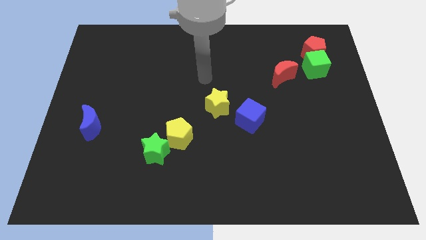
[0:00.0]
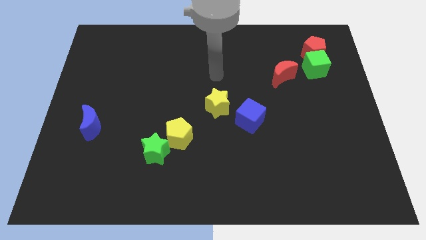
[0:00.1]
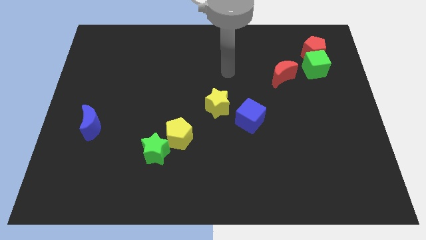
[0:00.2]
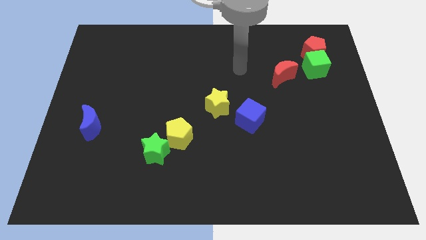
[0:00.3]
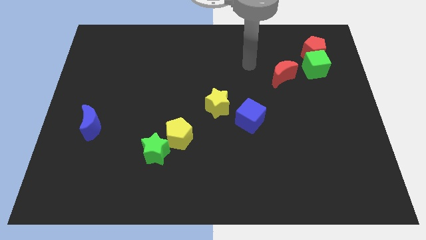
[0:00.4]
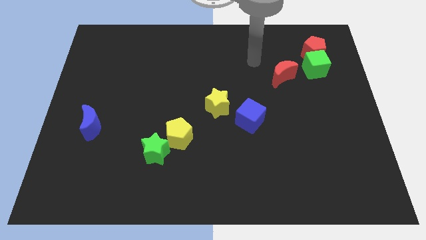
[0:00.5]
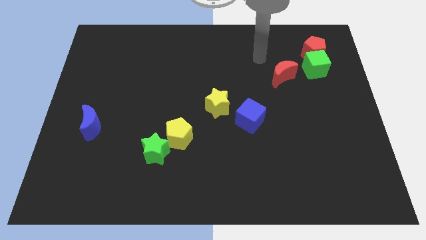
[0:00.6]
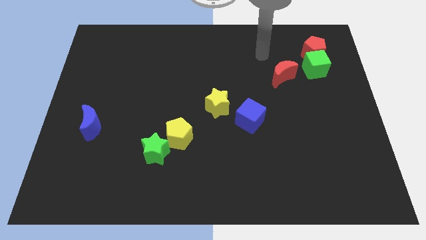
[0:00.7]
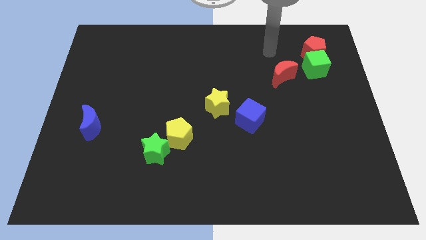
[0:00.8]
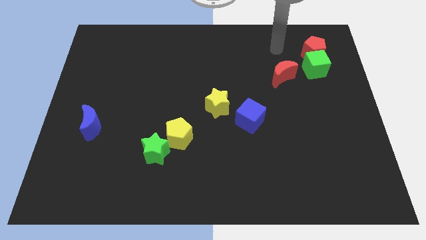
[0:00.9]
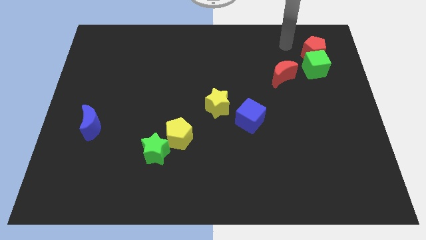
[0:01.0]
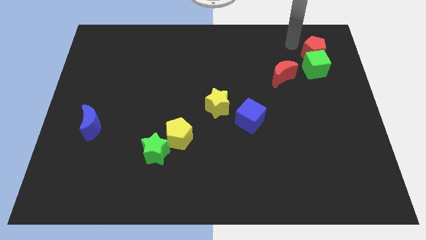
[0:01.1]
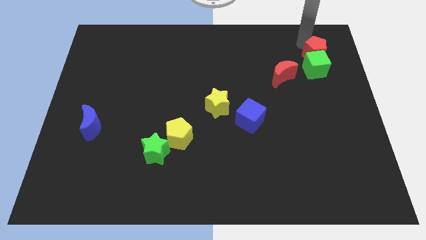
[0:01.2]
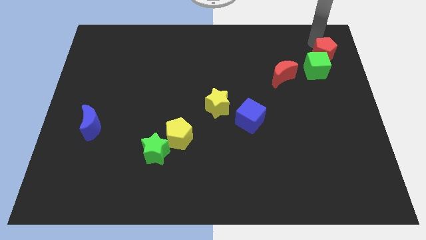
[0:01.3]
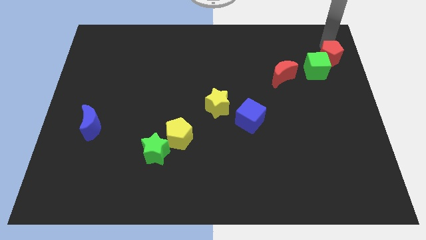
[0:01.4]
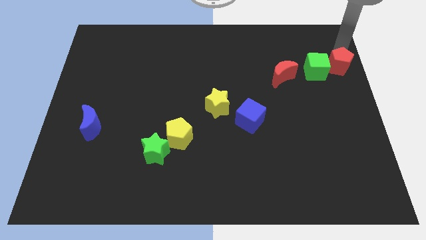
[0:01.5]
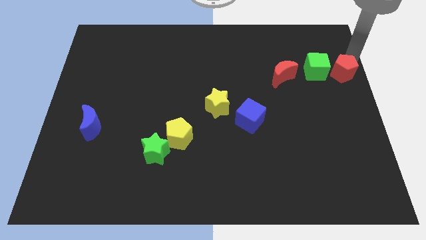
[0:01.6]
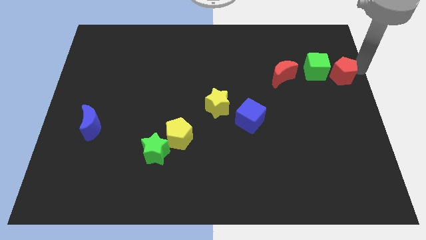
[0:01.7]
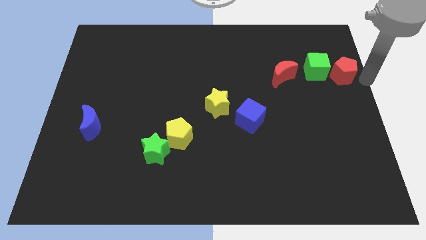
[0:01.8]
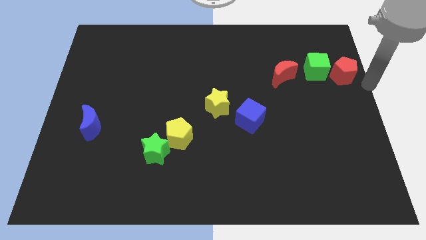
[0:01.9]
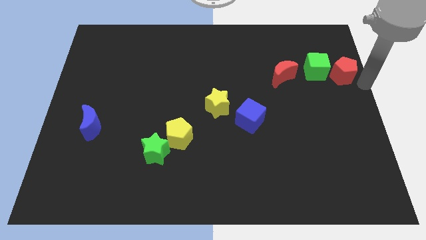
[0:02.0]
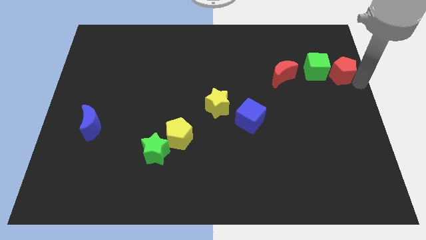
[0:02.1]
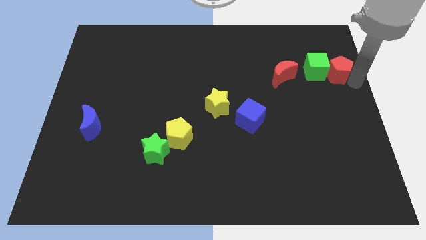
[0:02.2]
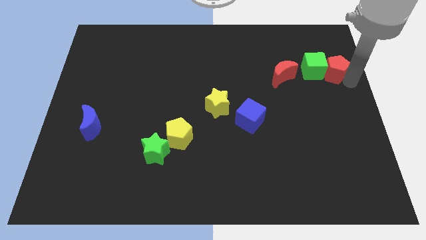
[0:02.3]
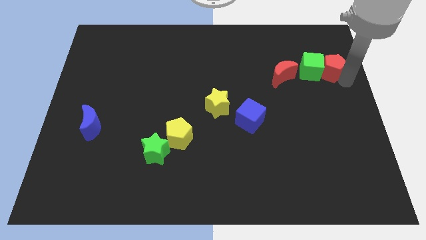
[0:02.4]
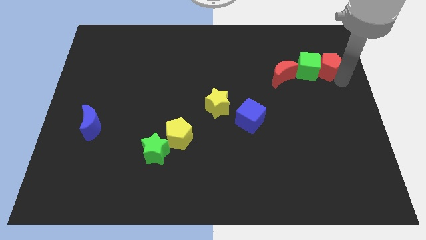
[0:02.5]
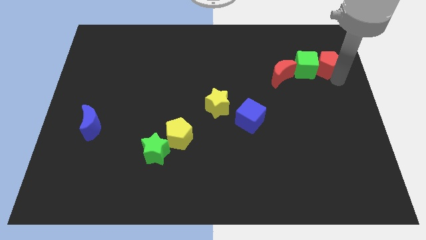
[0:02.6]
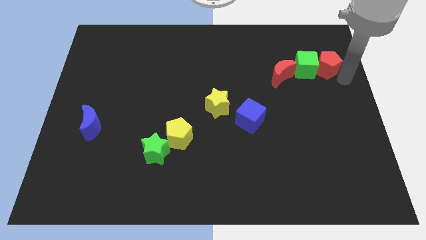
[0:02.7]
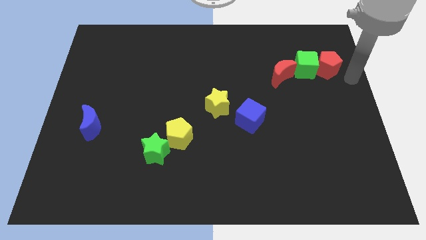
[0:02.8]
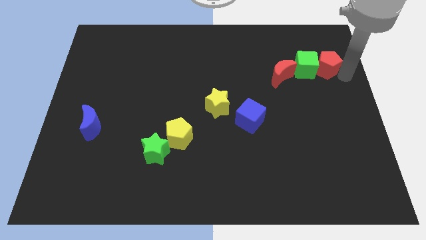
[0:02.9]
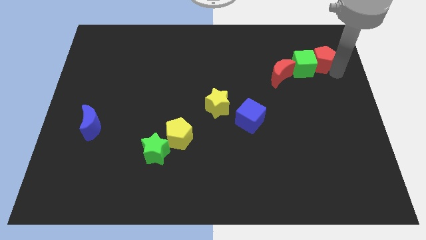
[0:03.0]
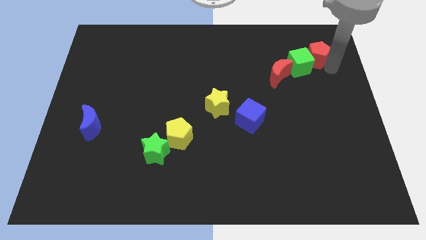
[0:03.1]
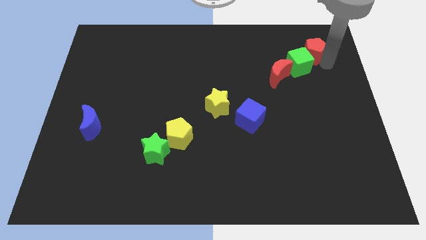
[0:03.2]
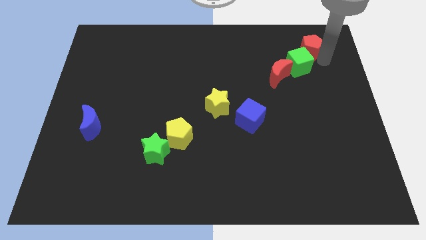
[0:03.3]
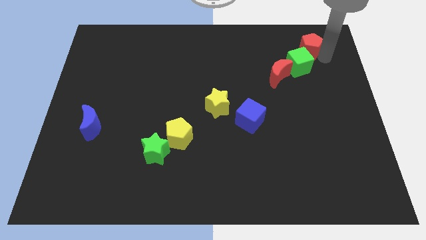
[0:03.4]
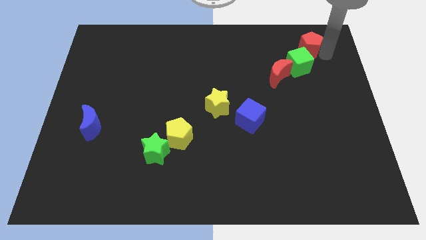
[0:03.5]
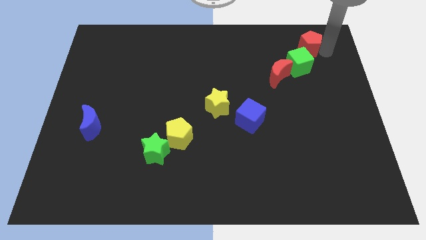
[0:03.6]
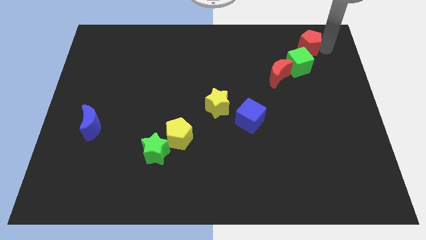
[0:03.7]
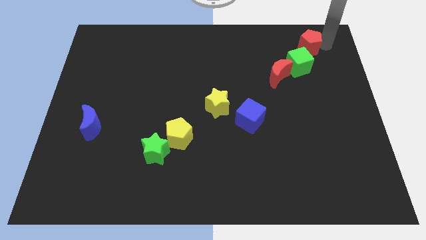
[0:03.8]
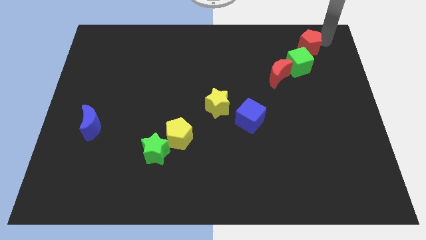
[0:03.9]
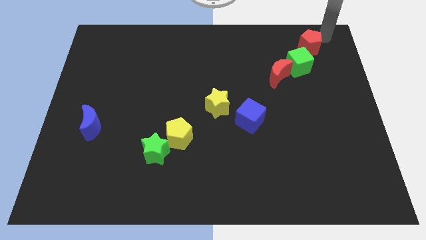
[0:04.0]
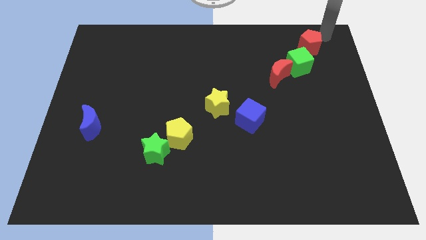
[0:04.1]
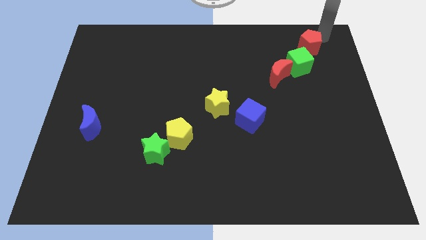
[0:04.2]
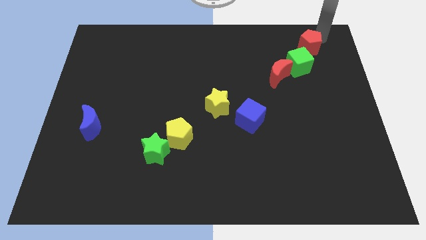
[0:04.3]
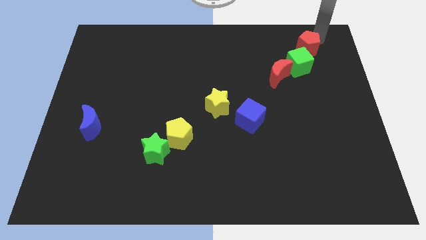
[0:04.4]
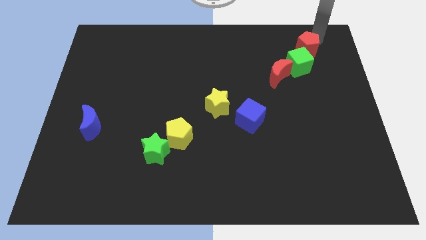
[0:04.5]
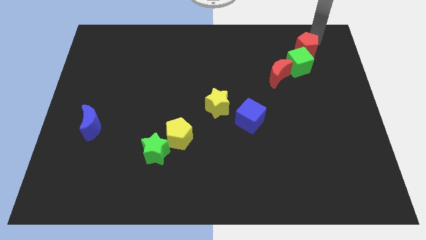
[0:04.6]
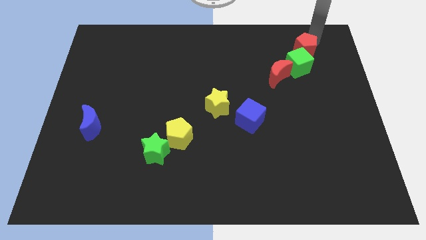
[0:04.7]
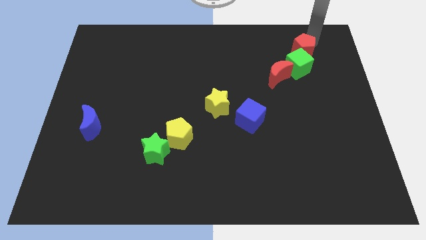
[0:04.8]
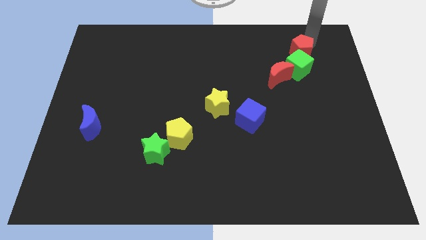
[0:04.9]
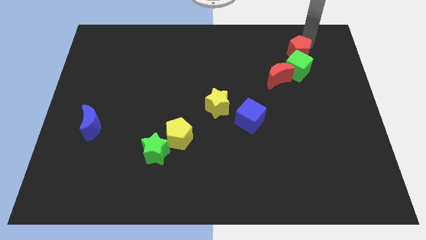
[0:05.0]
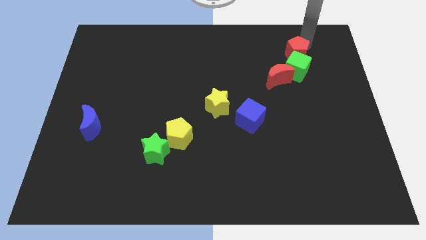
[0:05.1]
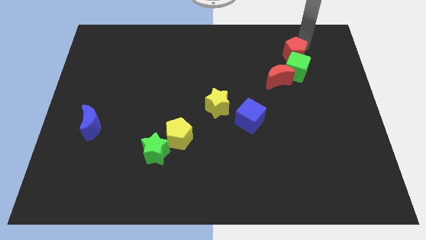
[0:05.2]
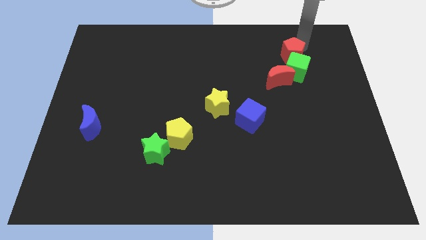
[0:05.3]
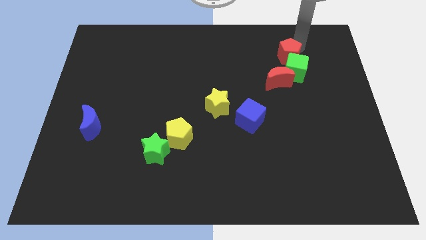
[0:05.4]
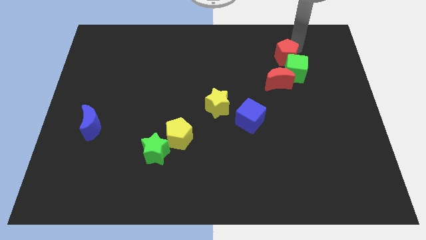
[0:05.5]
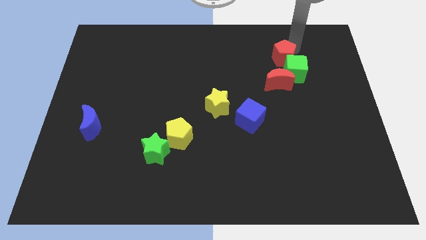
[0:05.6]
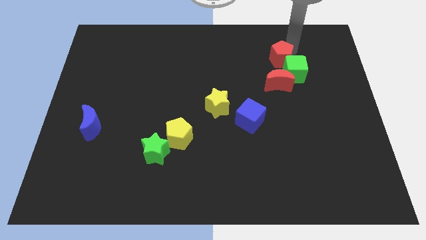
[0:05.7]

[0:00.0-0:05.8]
slide the red pentagon diagonally down and to the left a little

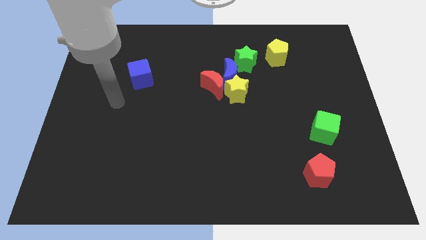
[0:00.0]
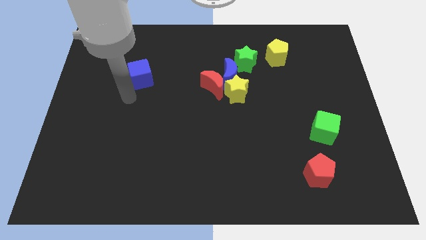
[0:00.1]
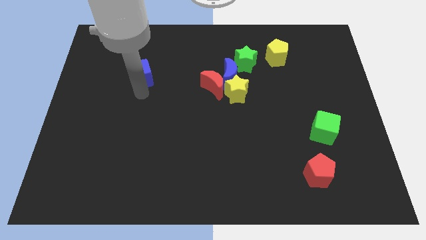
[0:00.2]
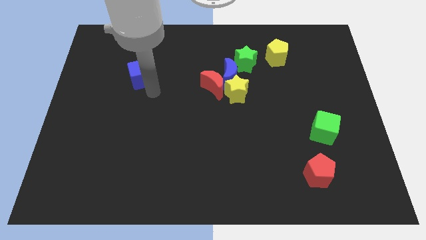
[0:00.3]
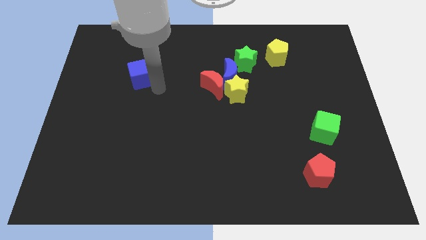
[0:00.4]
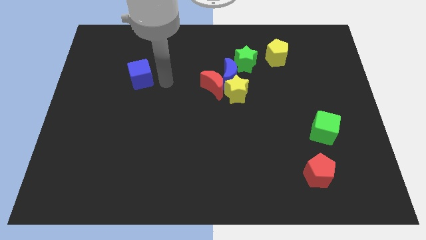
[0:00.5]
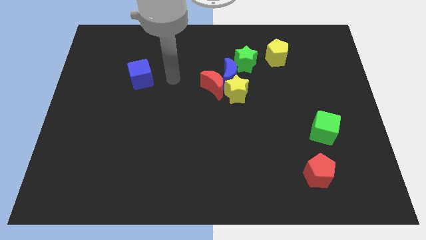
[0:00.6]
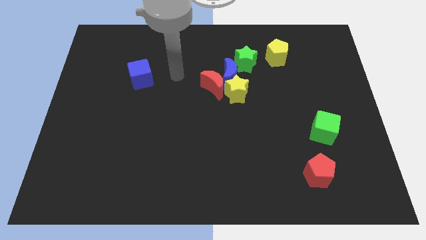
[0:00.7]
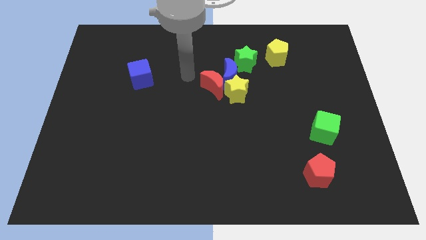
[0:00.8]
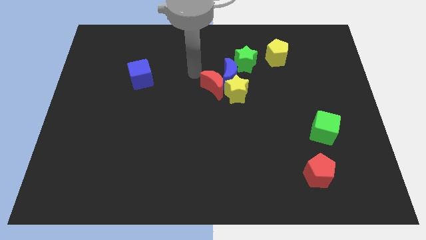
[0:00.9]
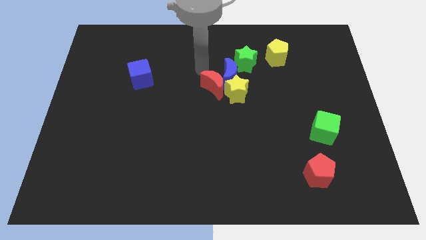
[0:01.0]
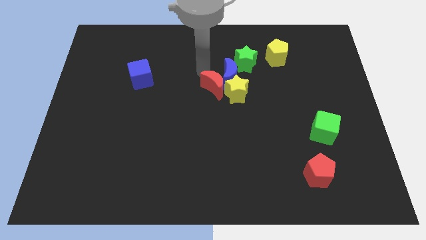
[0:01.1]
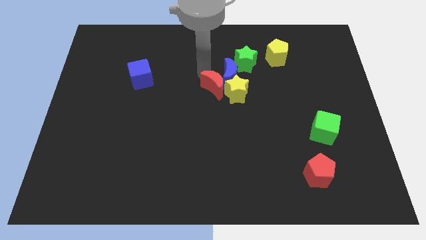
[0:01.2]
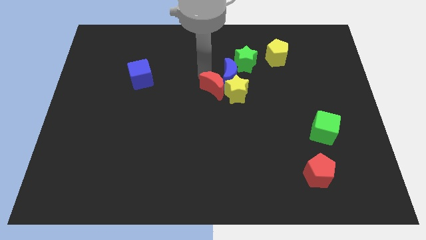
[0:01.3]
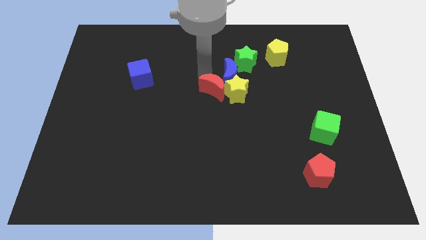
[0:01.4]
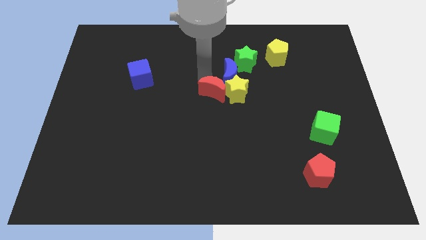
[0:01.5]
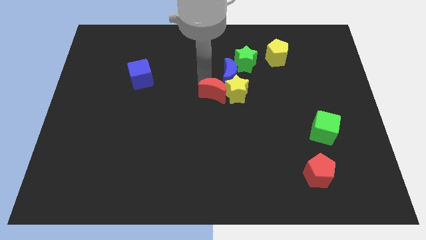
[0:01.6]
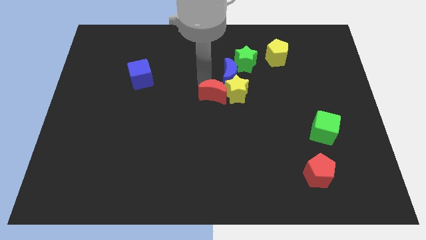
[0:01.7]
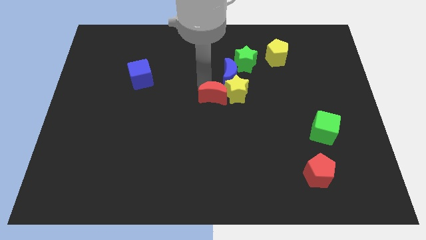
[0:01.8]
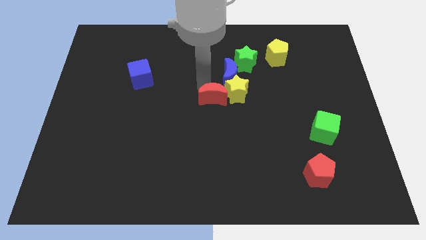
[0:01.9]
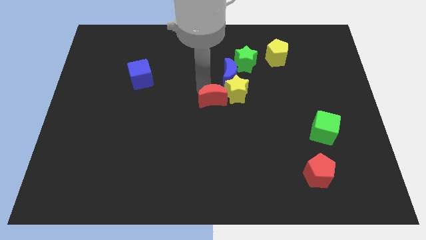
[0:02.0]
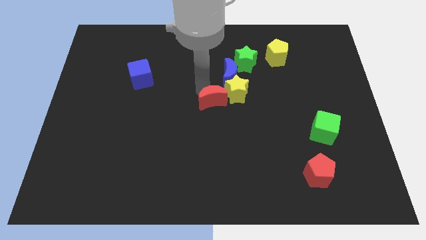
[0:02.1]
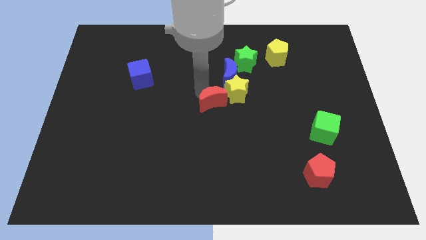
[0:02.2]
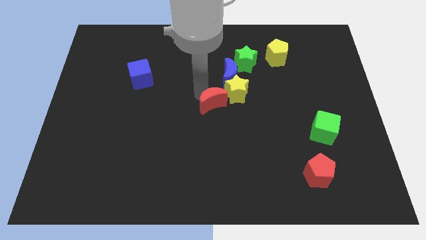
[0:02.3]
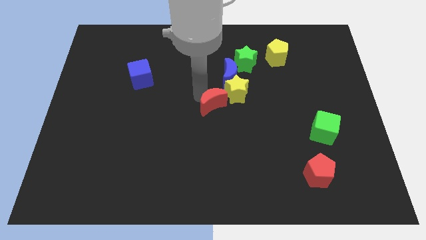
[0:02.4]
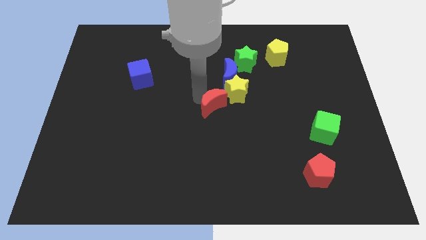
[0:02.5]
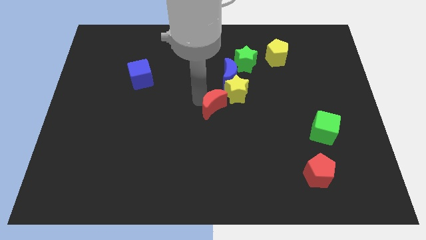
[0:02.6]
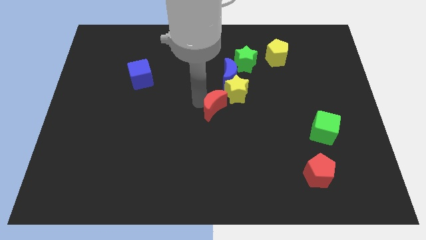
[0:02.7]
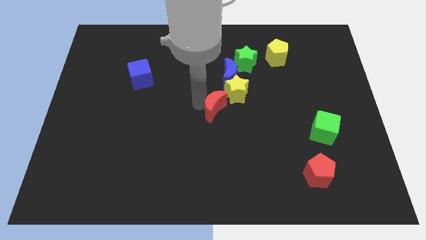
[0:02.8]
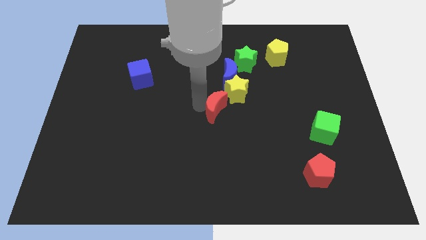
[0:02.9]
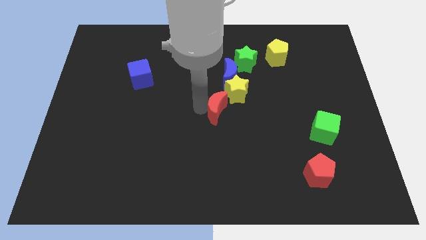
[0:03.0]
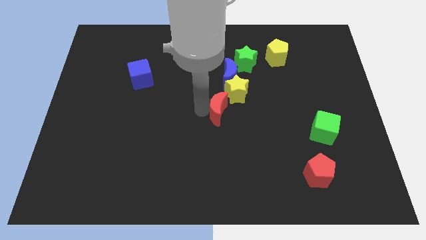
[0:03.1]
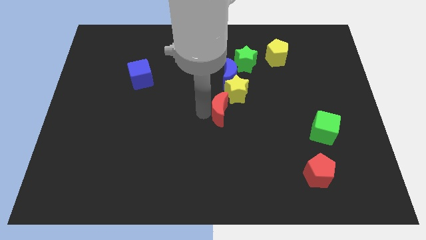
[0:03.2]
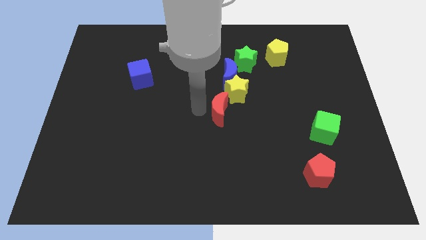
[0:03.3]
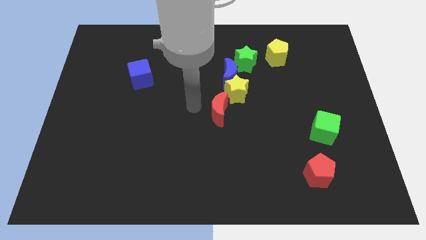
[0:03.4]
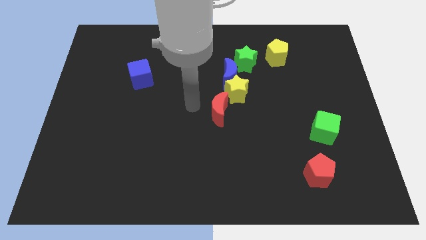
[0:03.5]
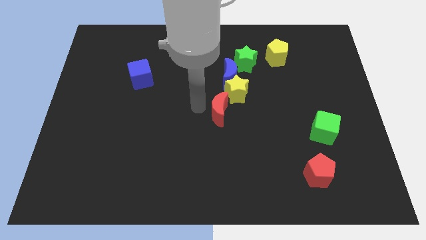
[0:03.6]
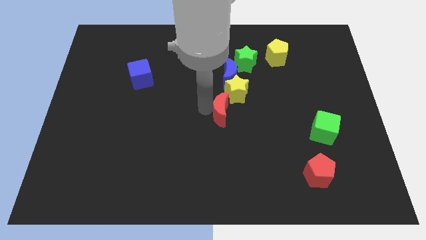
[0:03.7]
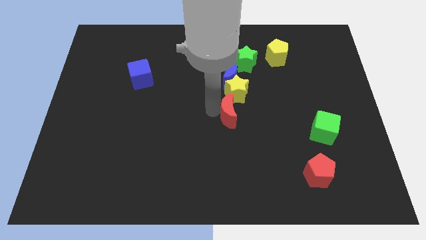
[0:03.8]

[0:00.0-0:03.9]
slightly move the red moon down and right
